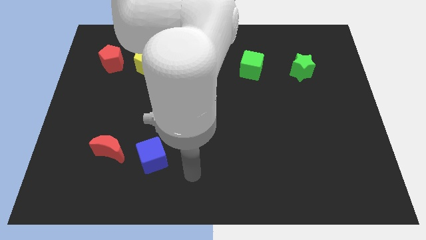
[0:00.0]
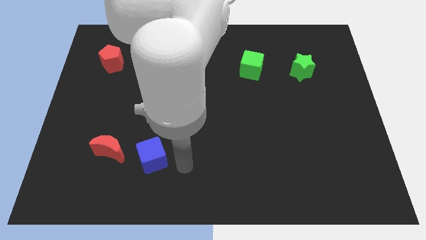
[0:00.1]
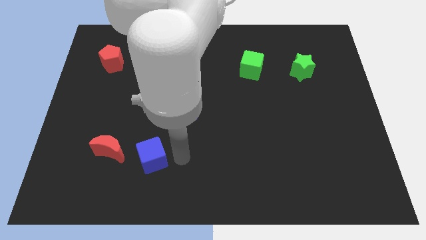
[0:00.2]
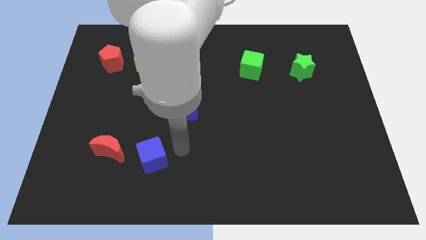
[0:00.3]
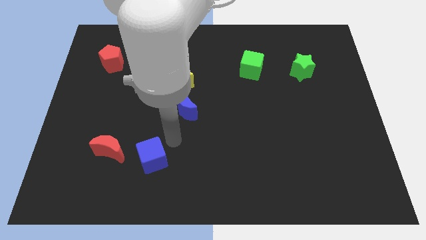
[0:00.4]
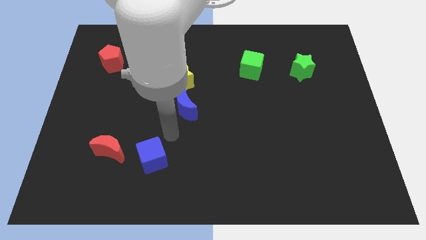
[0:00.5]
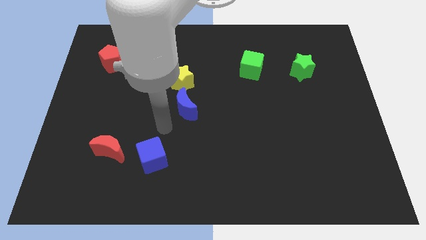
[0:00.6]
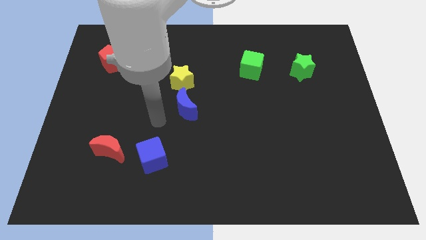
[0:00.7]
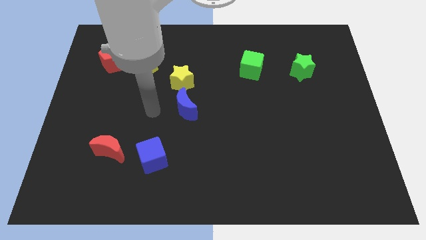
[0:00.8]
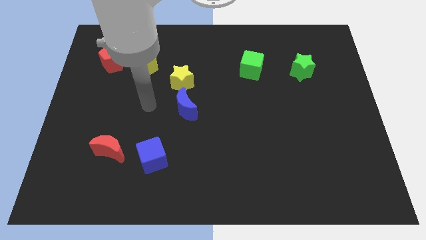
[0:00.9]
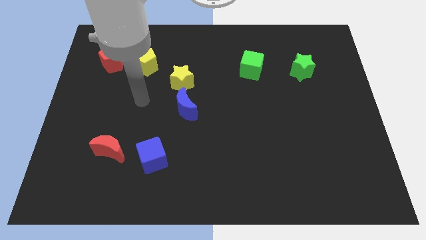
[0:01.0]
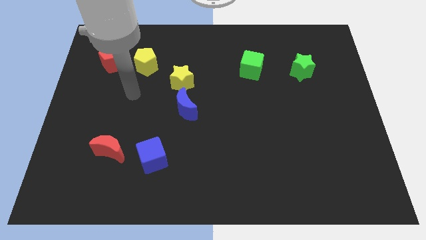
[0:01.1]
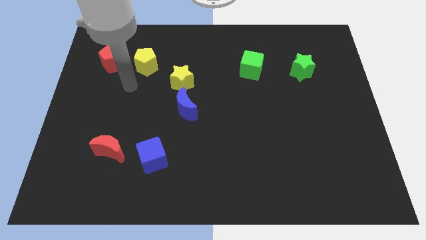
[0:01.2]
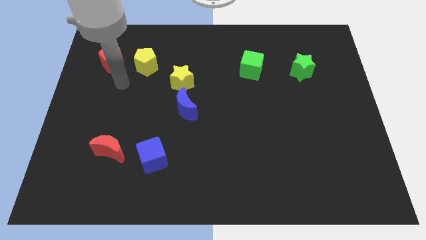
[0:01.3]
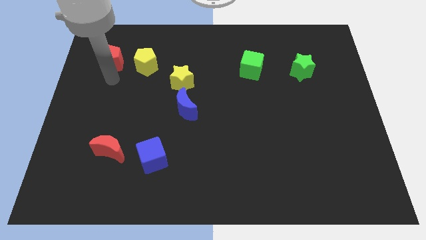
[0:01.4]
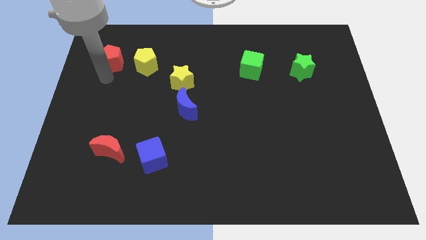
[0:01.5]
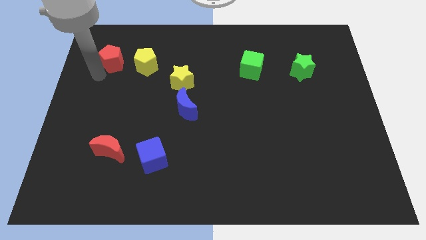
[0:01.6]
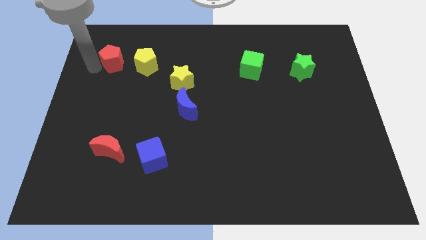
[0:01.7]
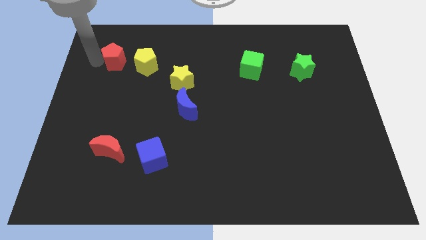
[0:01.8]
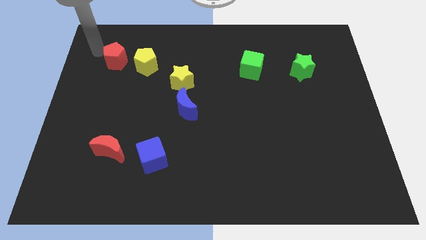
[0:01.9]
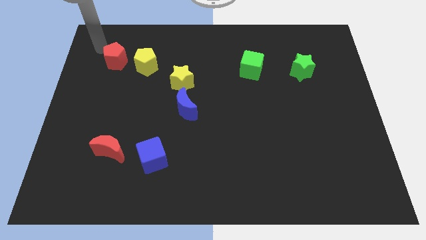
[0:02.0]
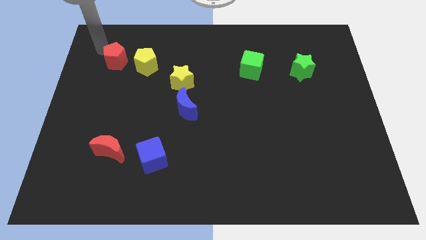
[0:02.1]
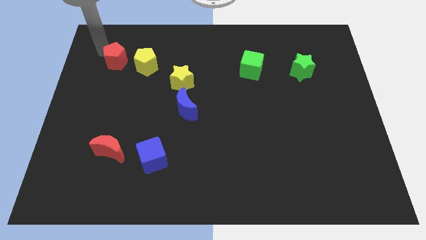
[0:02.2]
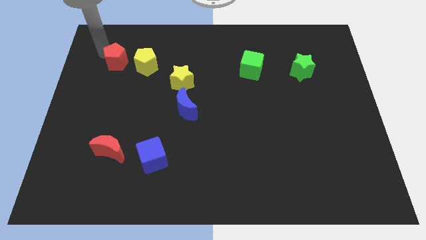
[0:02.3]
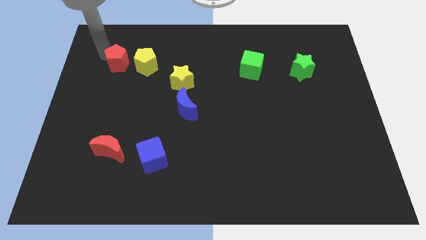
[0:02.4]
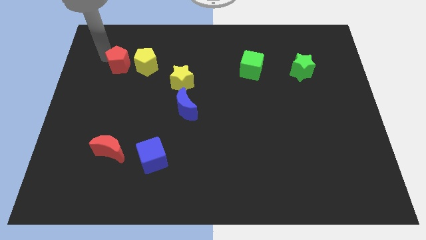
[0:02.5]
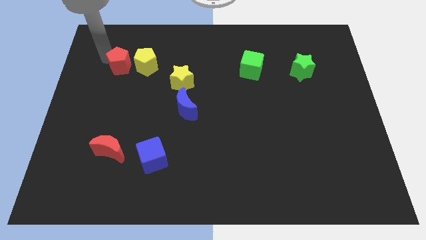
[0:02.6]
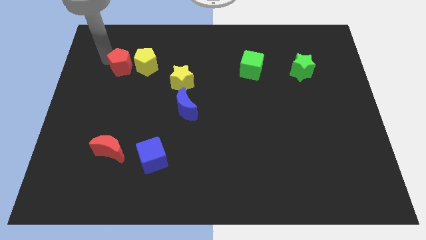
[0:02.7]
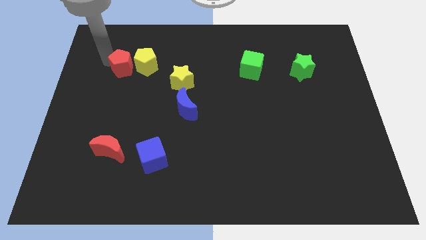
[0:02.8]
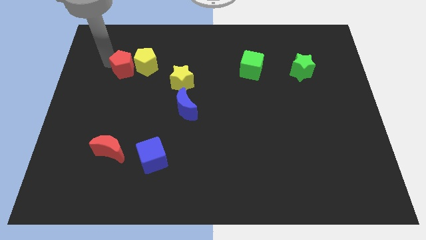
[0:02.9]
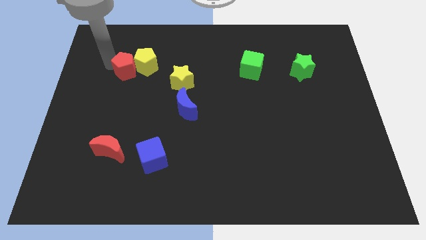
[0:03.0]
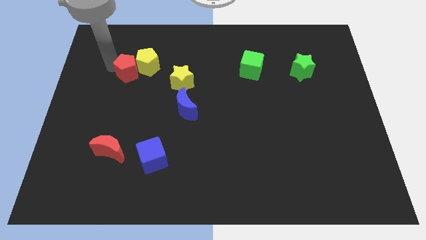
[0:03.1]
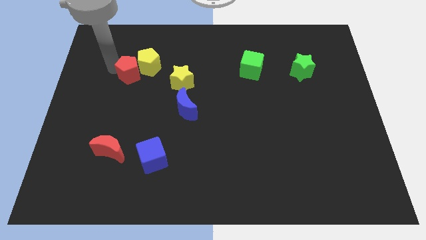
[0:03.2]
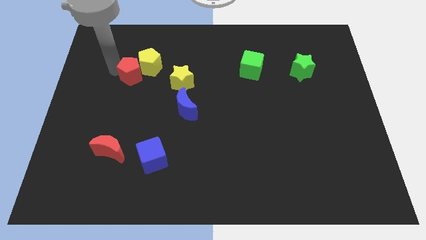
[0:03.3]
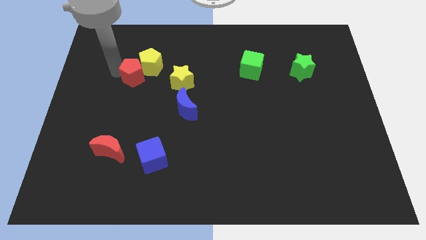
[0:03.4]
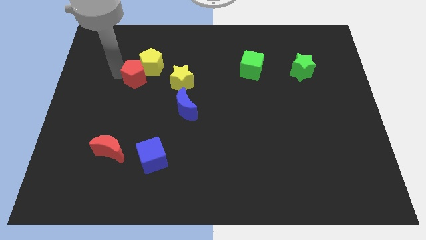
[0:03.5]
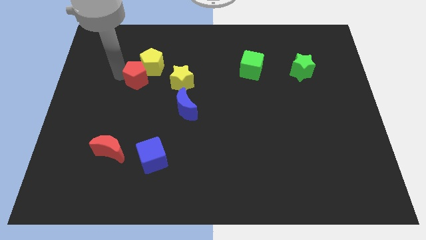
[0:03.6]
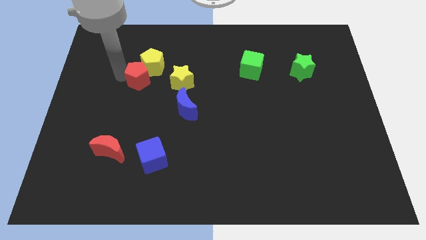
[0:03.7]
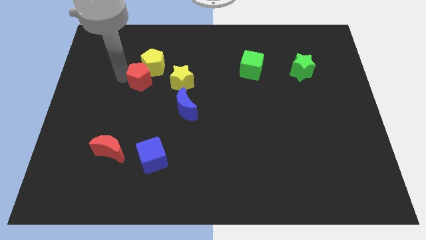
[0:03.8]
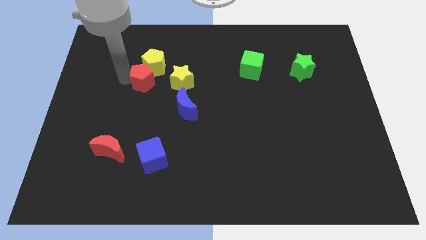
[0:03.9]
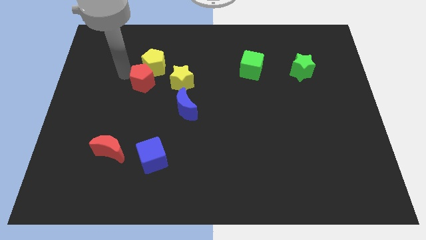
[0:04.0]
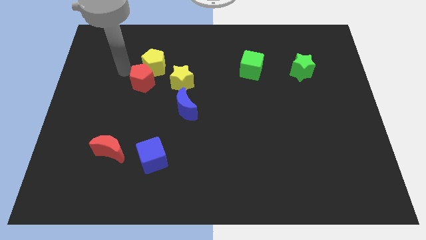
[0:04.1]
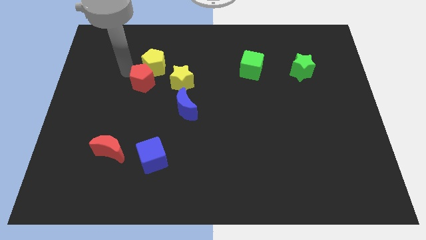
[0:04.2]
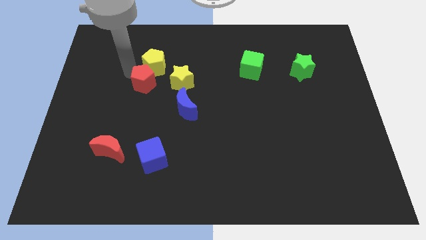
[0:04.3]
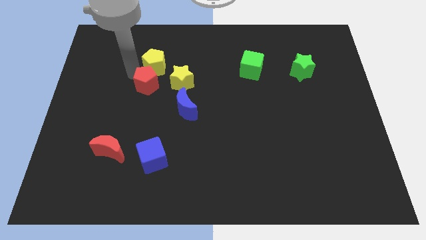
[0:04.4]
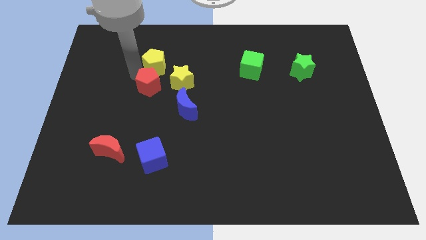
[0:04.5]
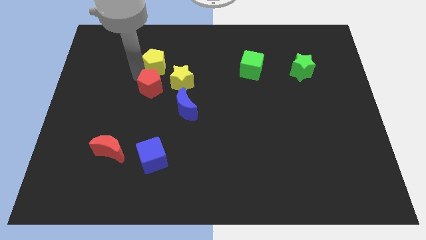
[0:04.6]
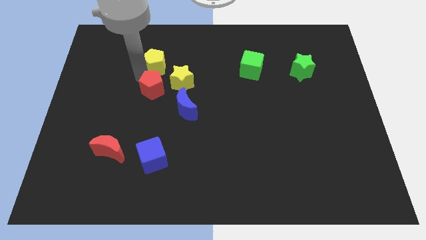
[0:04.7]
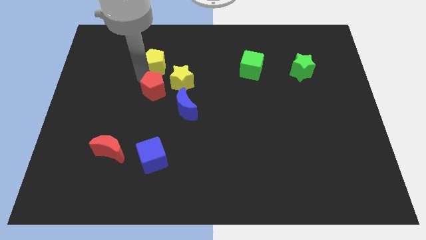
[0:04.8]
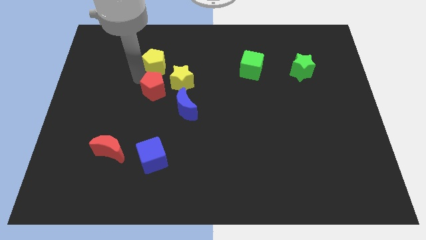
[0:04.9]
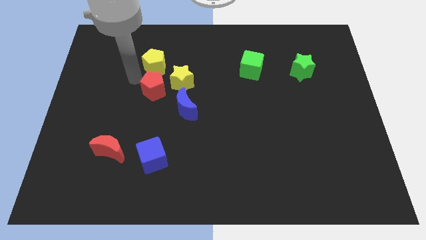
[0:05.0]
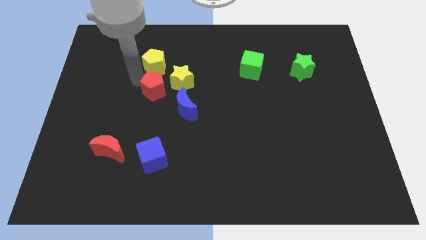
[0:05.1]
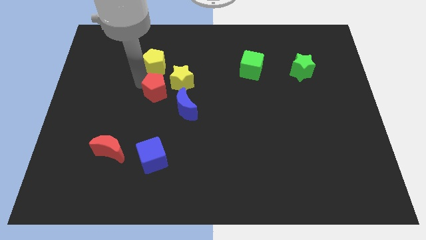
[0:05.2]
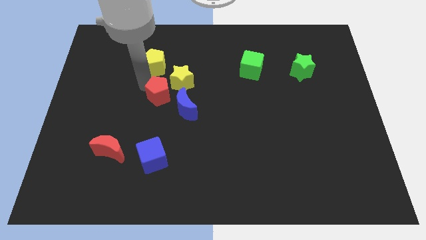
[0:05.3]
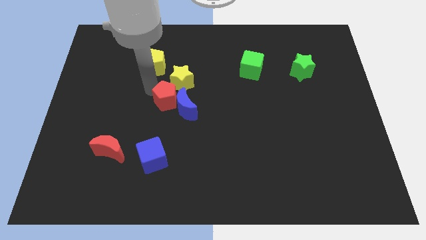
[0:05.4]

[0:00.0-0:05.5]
slide the red pentagon to the blue moon
